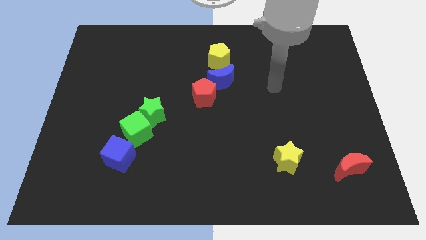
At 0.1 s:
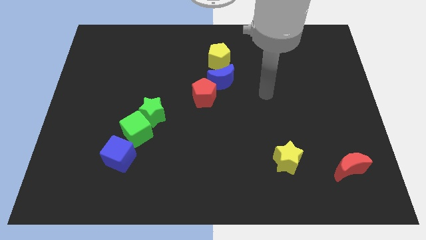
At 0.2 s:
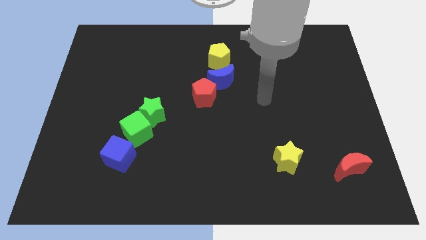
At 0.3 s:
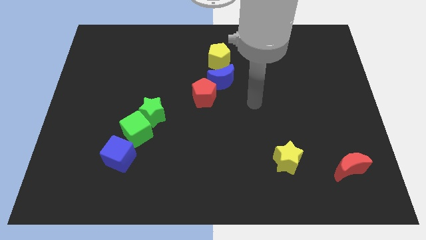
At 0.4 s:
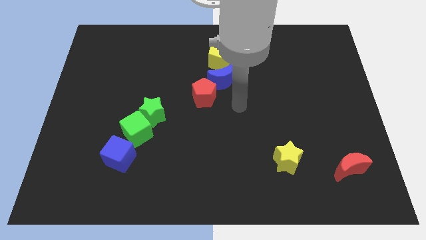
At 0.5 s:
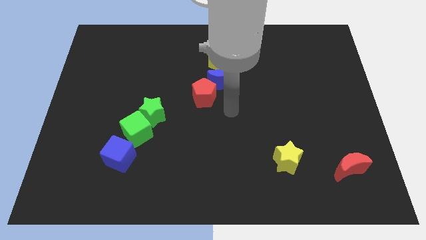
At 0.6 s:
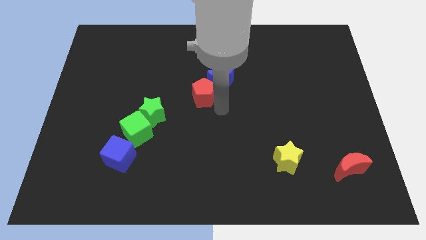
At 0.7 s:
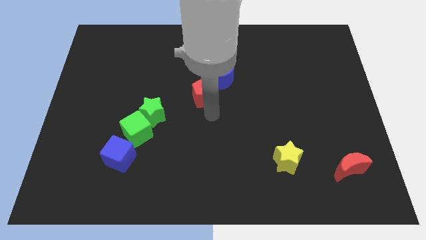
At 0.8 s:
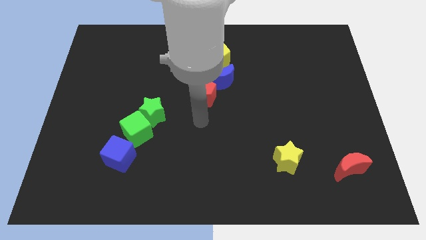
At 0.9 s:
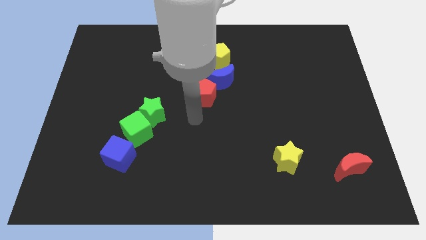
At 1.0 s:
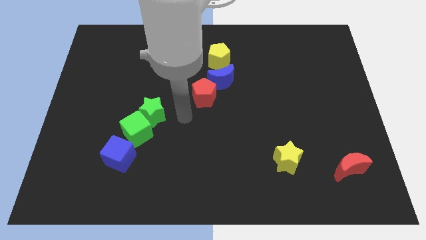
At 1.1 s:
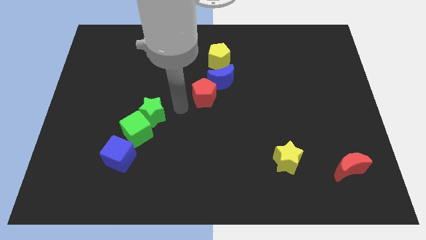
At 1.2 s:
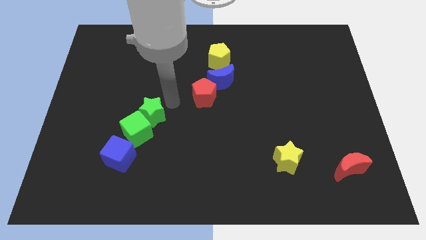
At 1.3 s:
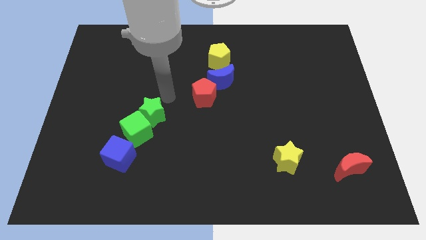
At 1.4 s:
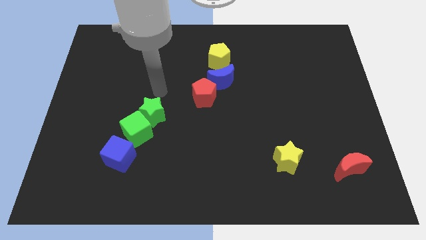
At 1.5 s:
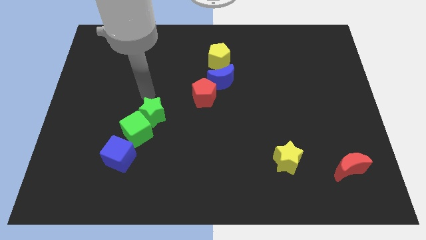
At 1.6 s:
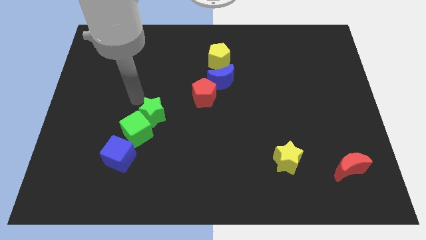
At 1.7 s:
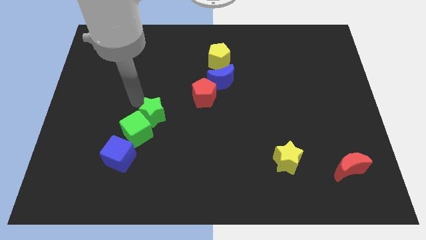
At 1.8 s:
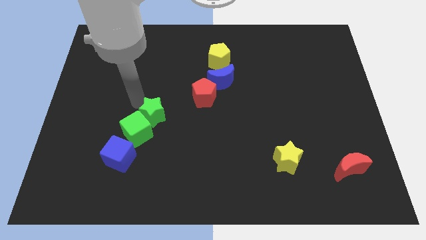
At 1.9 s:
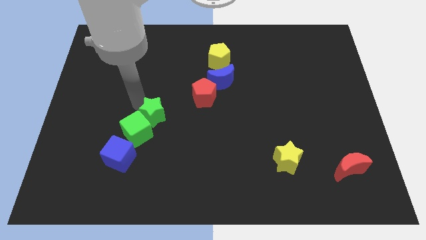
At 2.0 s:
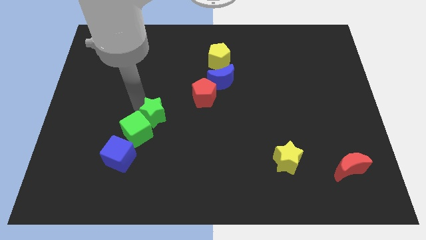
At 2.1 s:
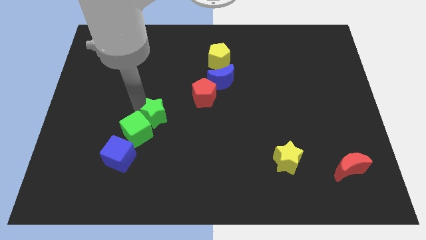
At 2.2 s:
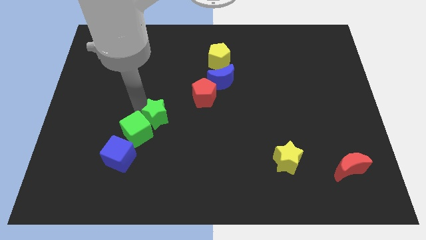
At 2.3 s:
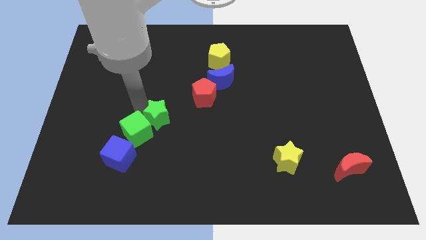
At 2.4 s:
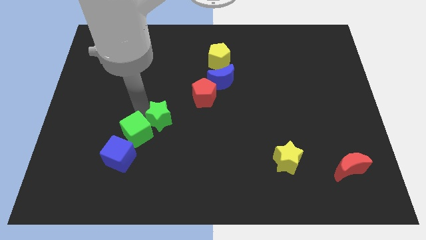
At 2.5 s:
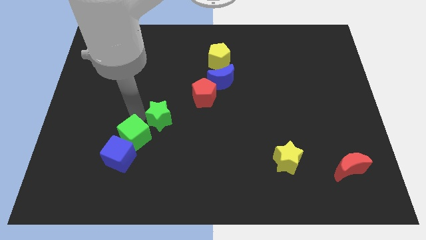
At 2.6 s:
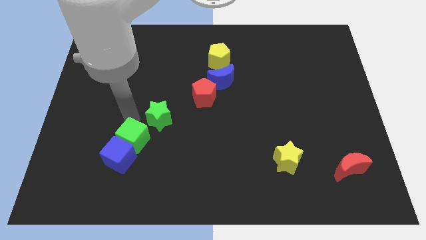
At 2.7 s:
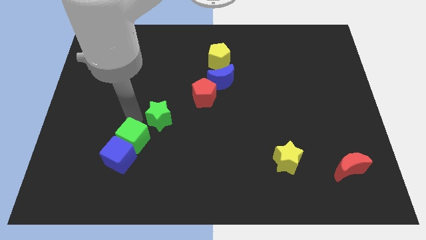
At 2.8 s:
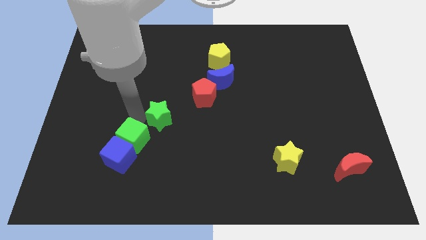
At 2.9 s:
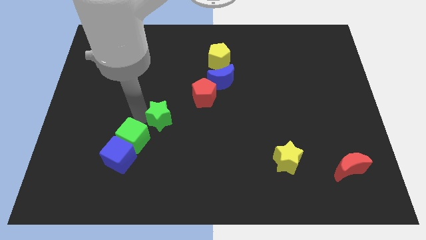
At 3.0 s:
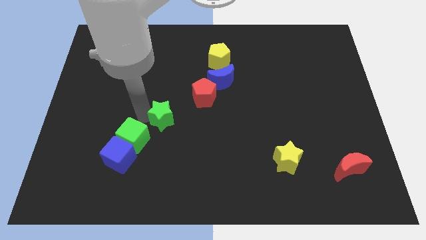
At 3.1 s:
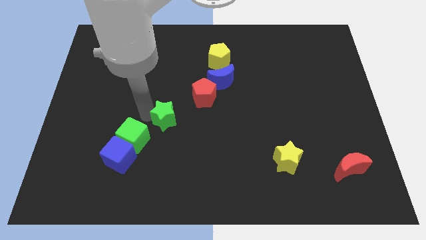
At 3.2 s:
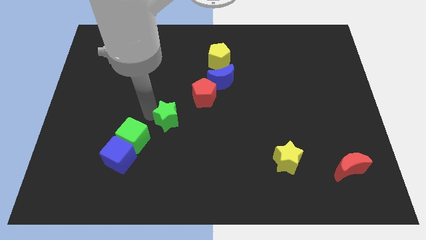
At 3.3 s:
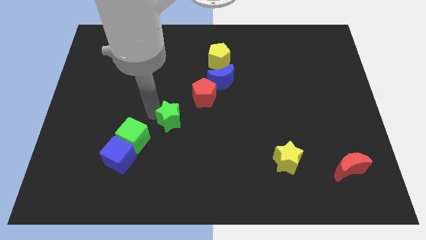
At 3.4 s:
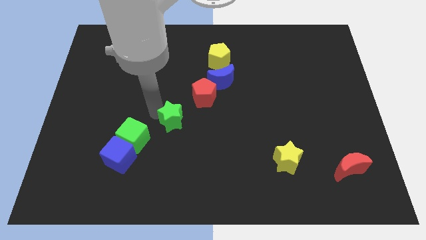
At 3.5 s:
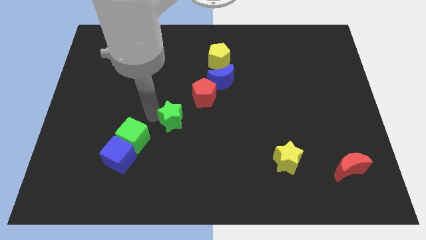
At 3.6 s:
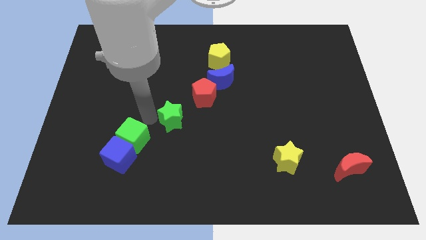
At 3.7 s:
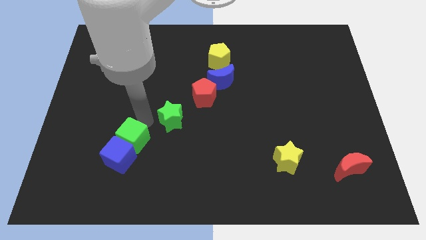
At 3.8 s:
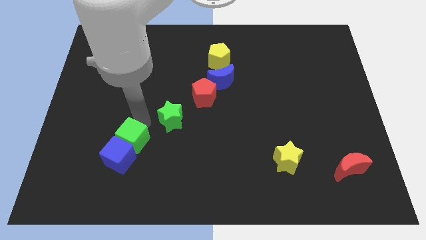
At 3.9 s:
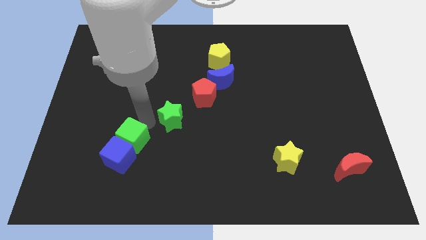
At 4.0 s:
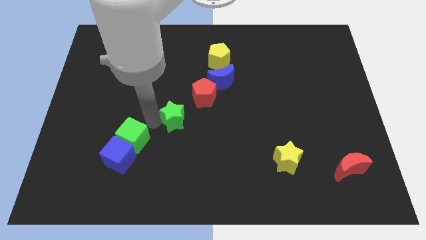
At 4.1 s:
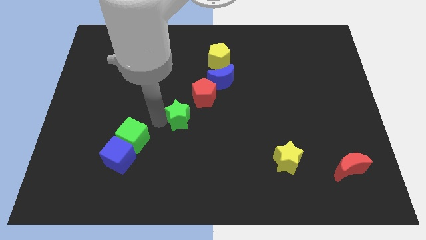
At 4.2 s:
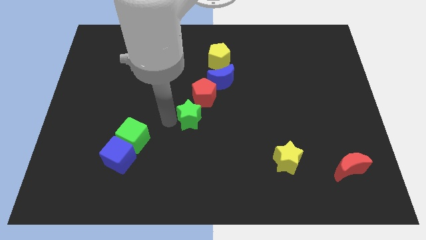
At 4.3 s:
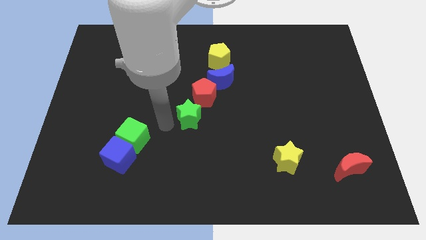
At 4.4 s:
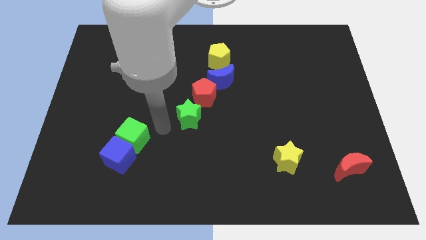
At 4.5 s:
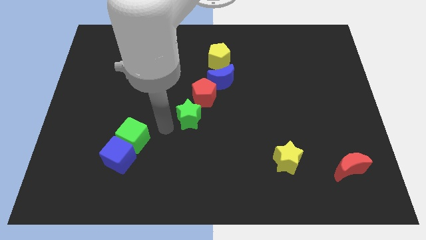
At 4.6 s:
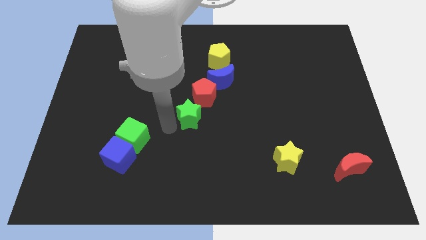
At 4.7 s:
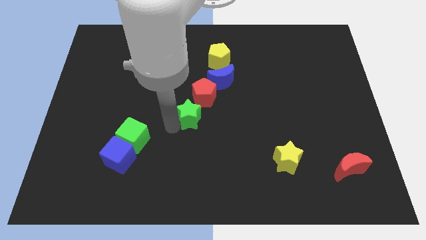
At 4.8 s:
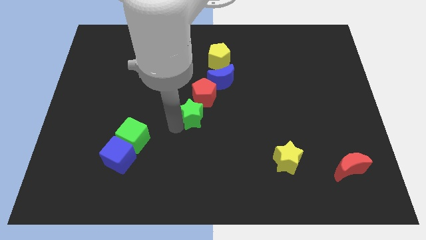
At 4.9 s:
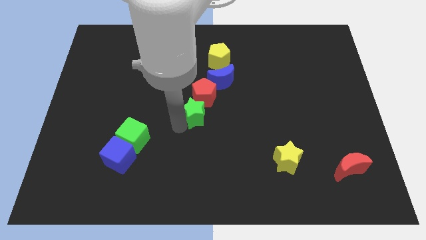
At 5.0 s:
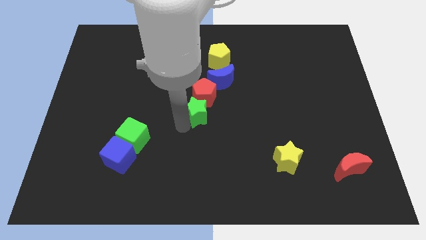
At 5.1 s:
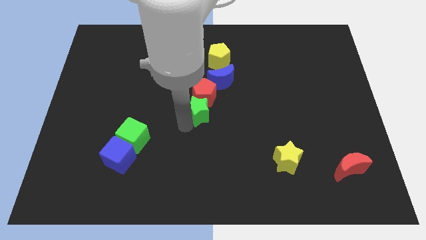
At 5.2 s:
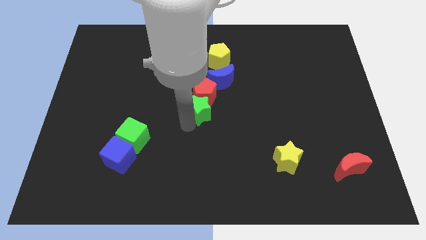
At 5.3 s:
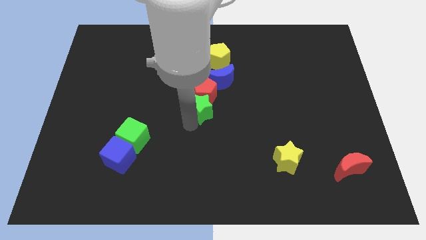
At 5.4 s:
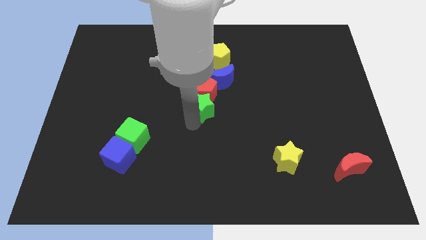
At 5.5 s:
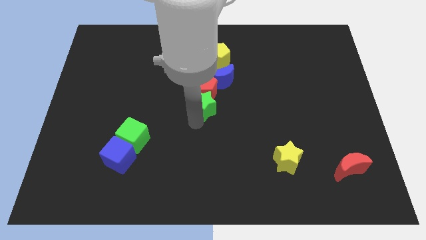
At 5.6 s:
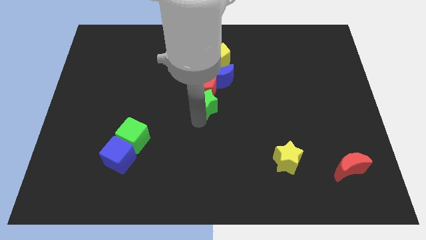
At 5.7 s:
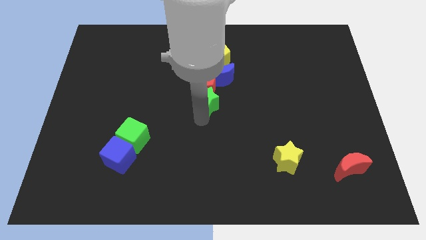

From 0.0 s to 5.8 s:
put the green star below the yellow pentagon

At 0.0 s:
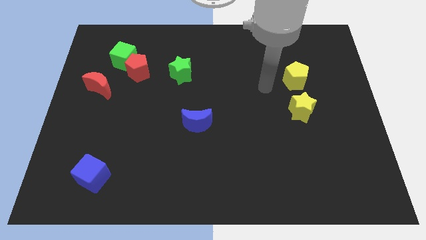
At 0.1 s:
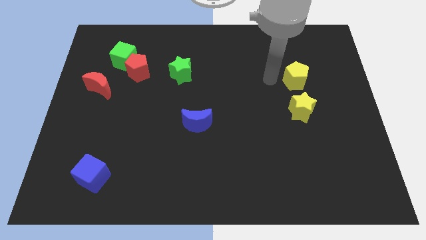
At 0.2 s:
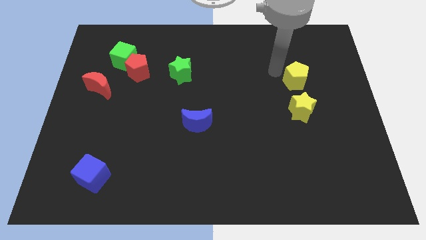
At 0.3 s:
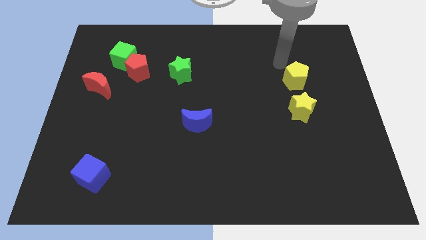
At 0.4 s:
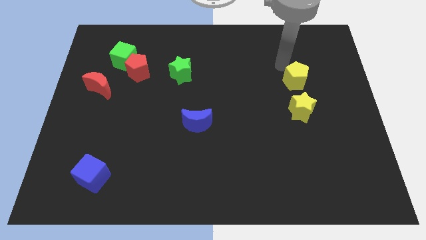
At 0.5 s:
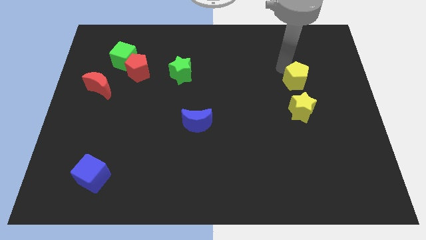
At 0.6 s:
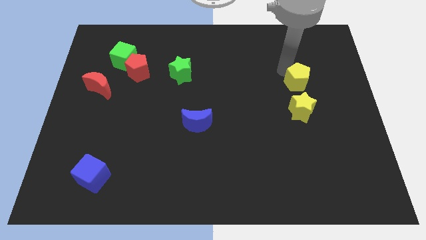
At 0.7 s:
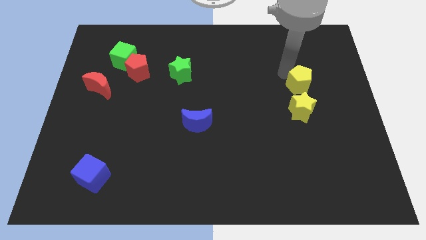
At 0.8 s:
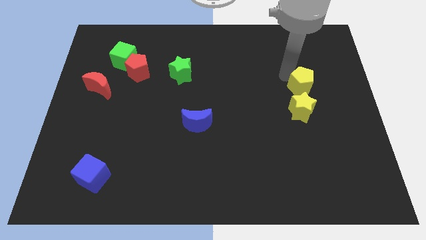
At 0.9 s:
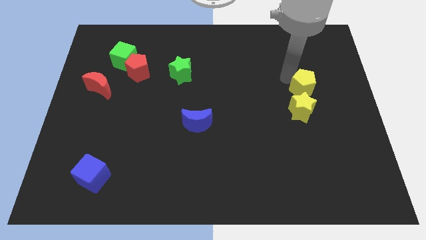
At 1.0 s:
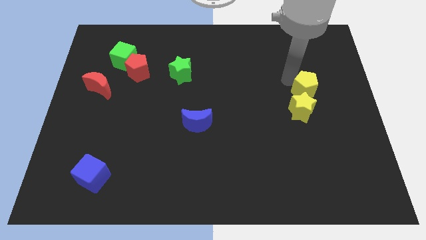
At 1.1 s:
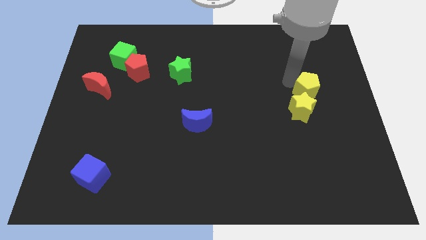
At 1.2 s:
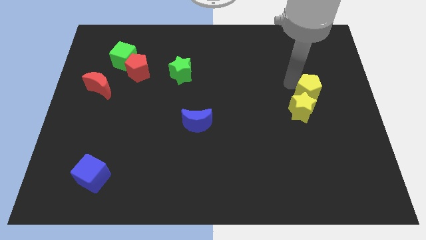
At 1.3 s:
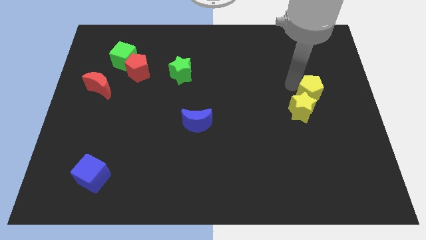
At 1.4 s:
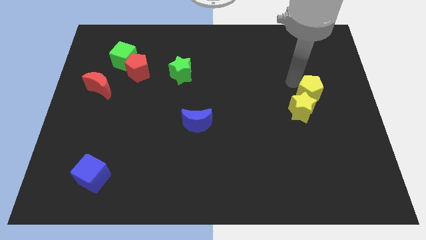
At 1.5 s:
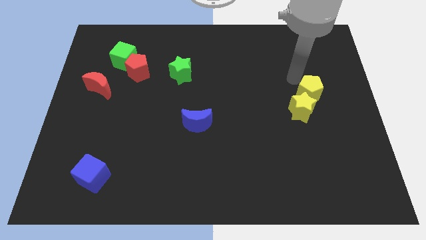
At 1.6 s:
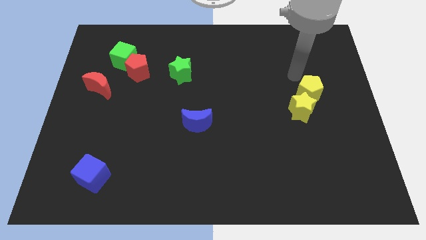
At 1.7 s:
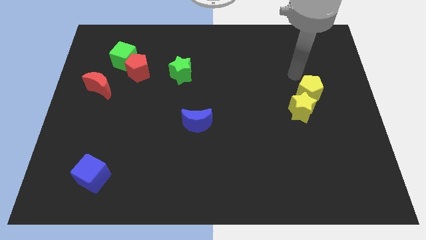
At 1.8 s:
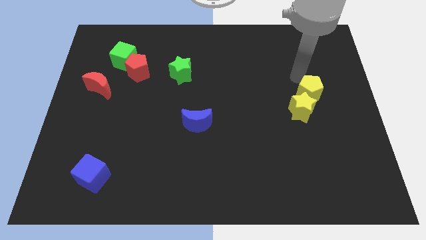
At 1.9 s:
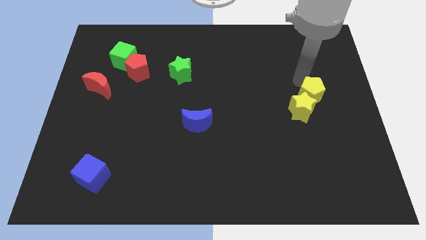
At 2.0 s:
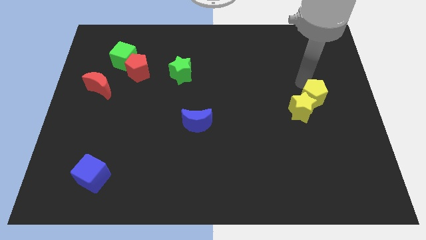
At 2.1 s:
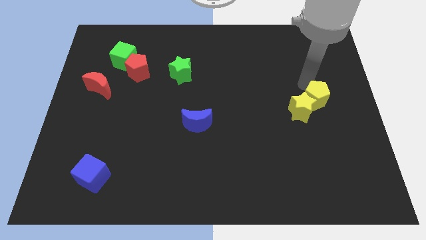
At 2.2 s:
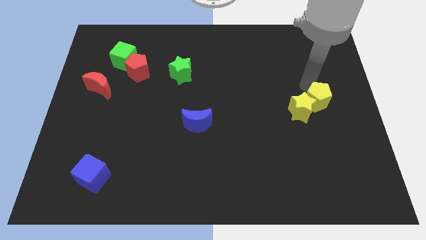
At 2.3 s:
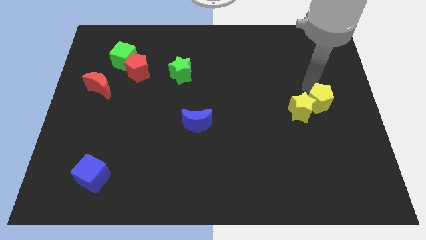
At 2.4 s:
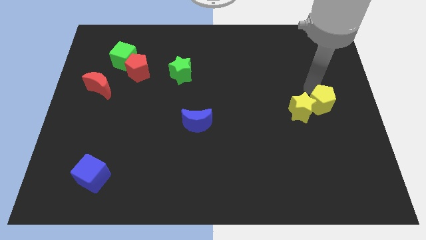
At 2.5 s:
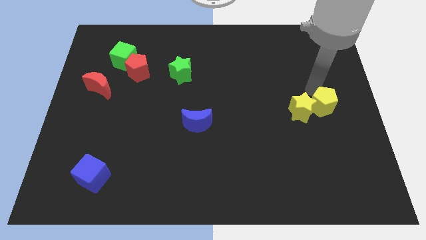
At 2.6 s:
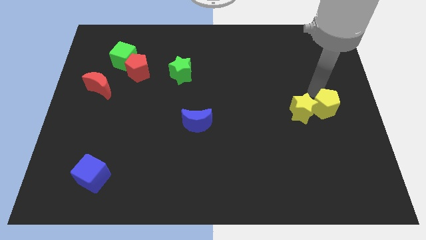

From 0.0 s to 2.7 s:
push the yellow pentagon to the bottom right of the yellow star
